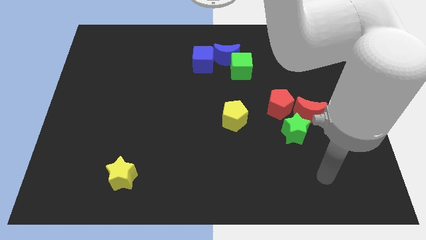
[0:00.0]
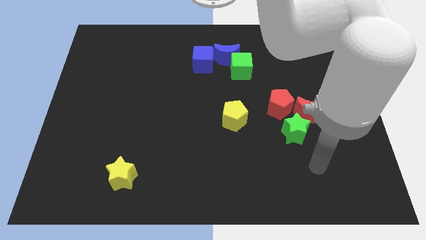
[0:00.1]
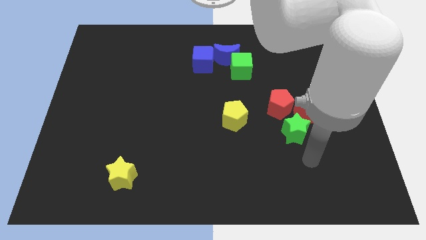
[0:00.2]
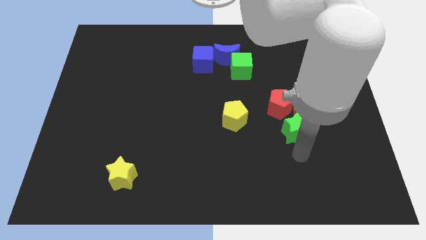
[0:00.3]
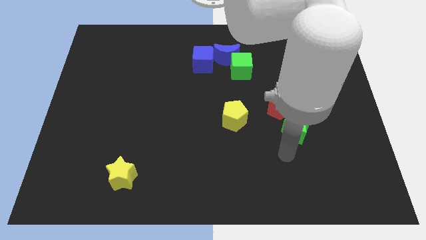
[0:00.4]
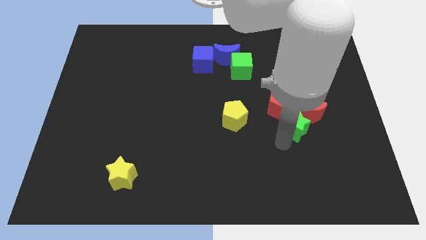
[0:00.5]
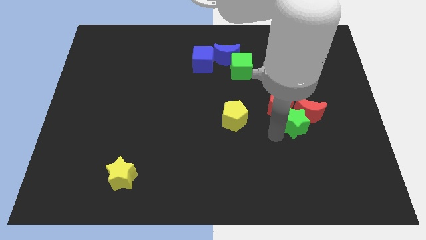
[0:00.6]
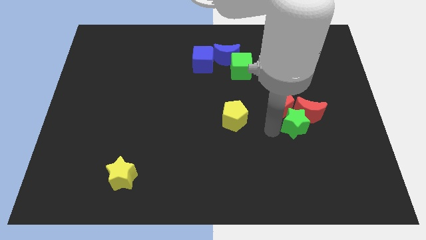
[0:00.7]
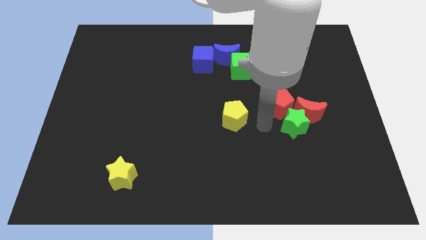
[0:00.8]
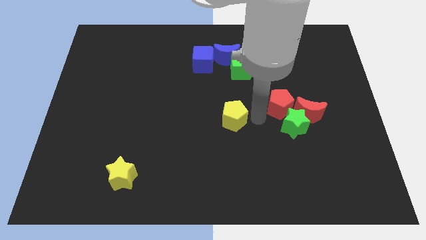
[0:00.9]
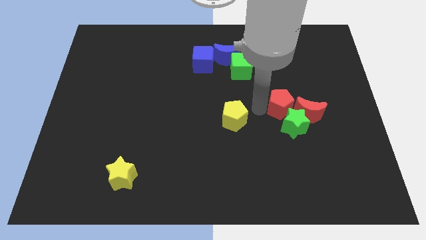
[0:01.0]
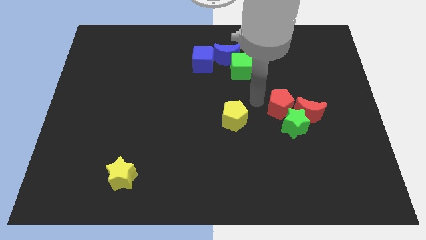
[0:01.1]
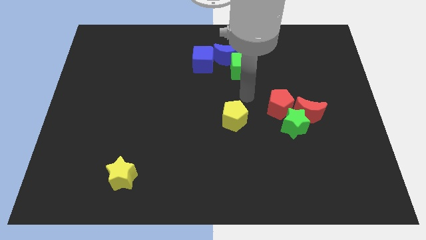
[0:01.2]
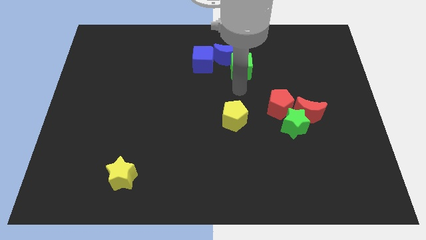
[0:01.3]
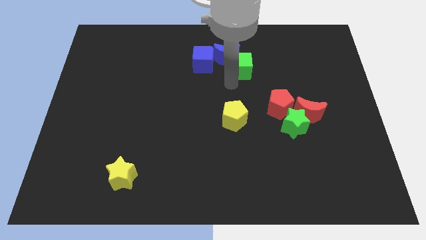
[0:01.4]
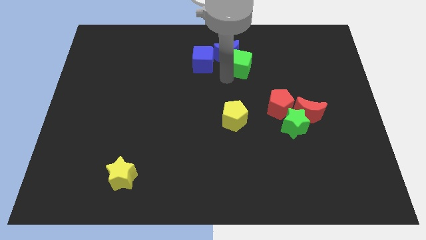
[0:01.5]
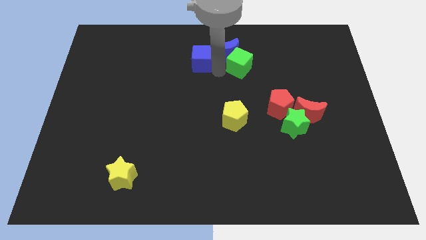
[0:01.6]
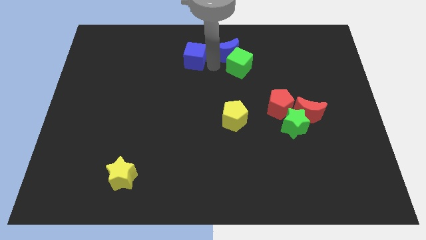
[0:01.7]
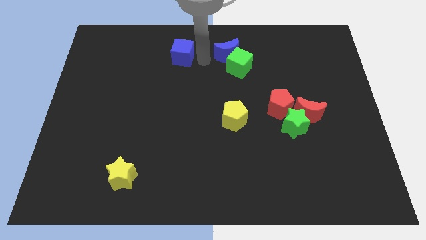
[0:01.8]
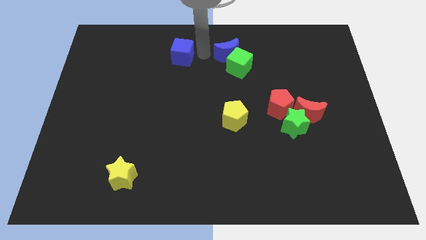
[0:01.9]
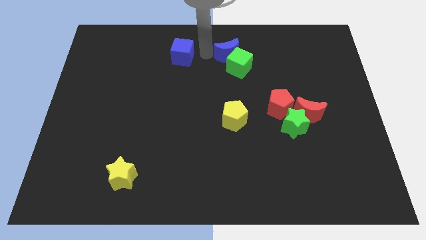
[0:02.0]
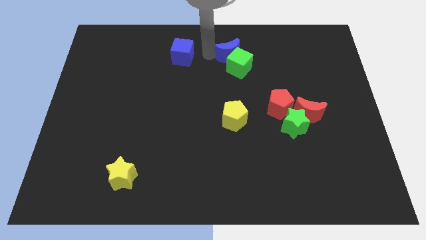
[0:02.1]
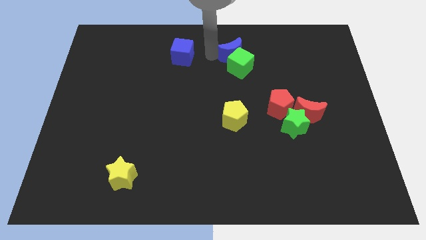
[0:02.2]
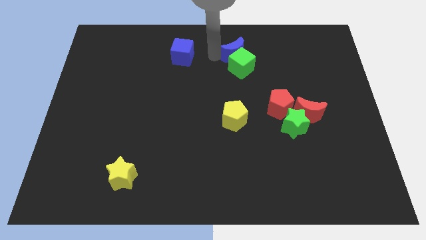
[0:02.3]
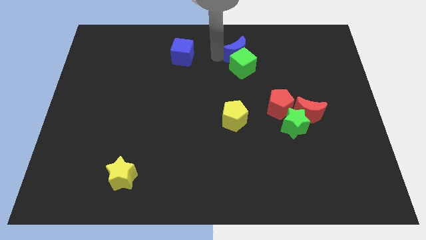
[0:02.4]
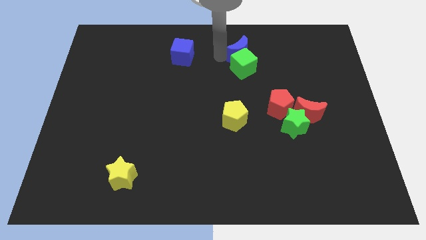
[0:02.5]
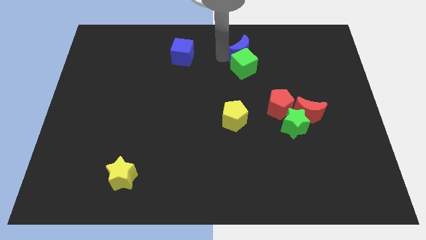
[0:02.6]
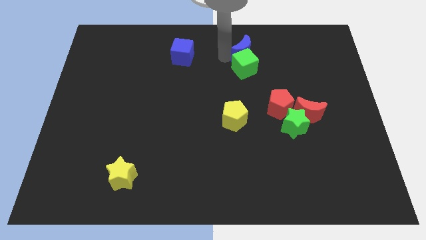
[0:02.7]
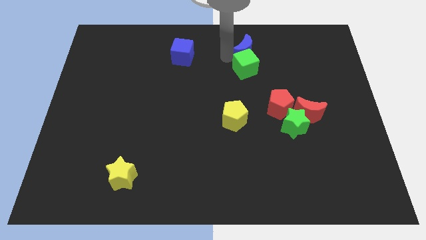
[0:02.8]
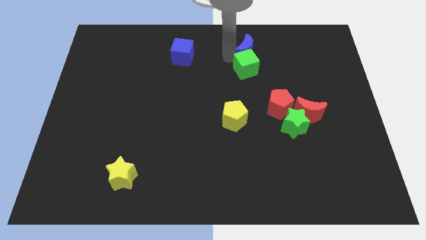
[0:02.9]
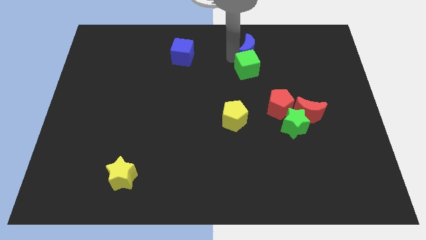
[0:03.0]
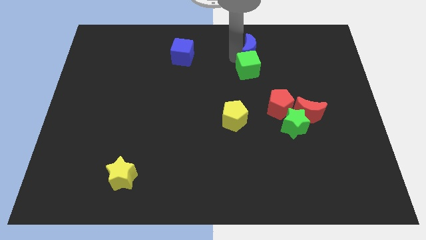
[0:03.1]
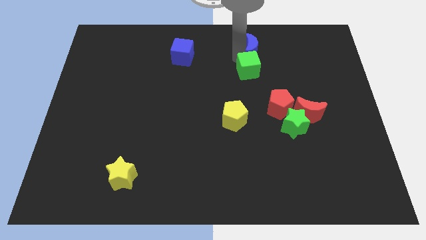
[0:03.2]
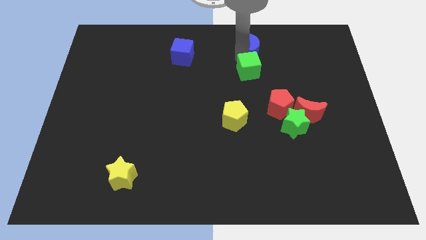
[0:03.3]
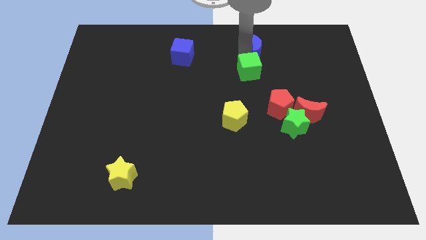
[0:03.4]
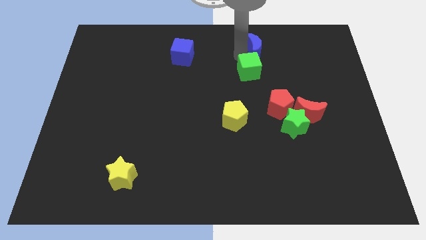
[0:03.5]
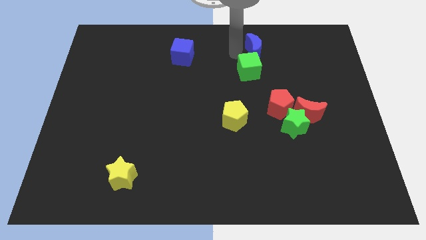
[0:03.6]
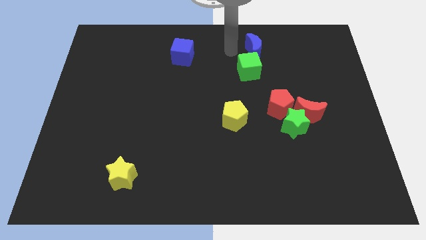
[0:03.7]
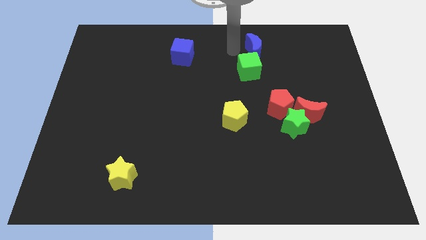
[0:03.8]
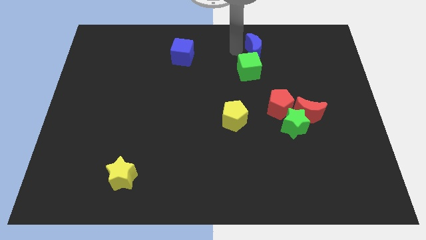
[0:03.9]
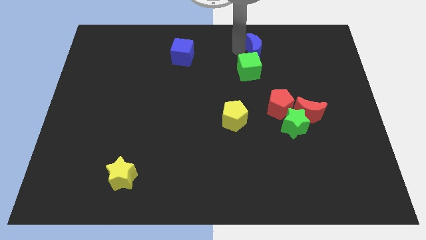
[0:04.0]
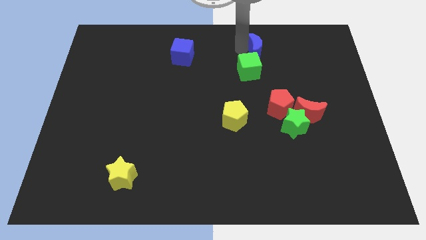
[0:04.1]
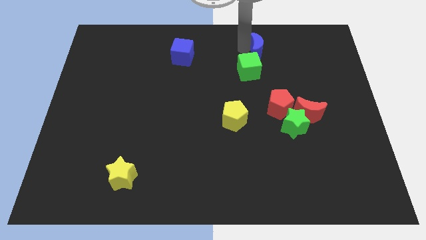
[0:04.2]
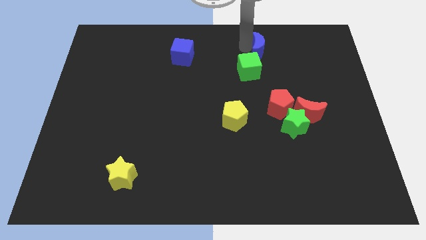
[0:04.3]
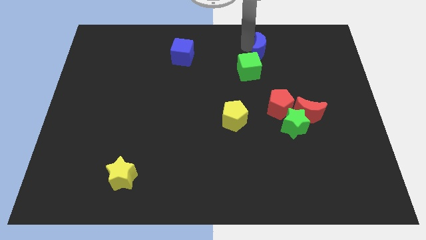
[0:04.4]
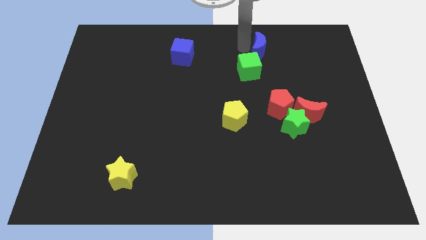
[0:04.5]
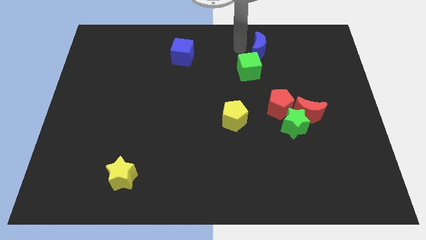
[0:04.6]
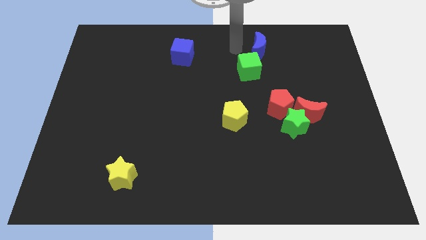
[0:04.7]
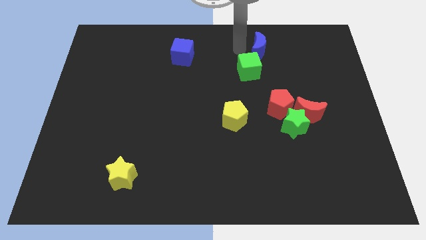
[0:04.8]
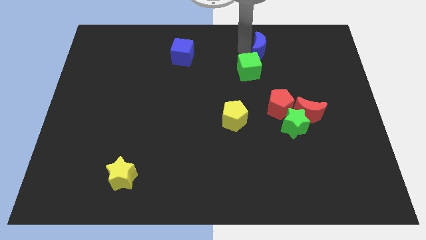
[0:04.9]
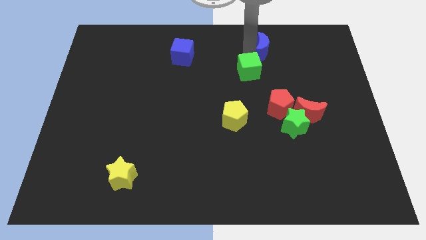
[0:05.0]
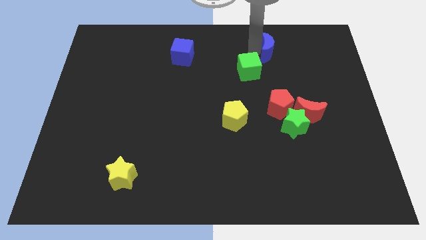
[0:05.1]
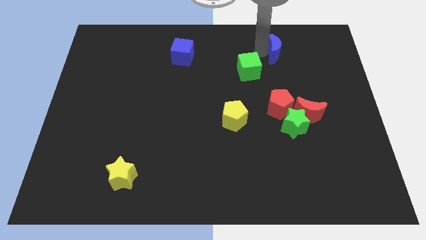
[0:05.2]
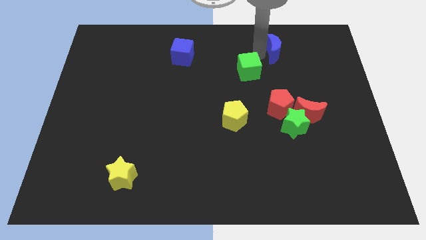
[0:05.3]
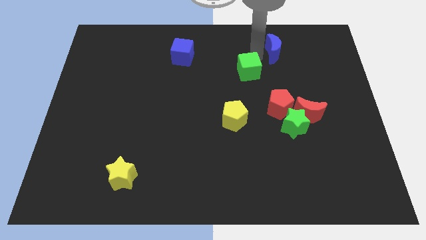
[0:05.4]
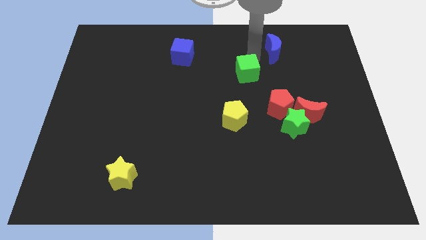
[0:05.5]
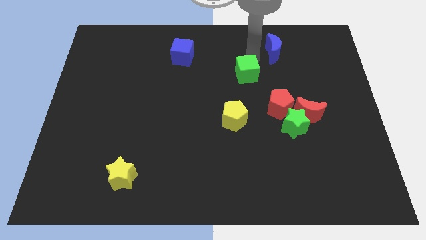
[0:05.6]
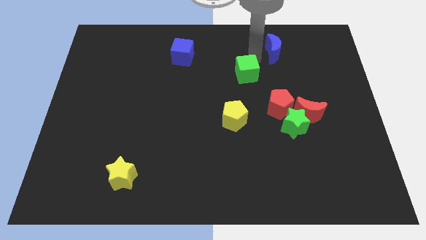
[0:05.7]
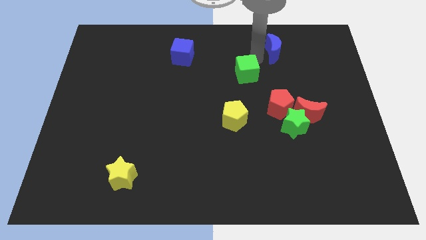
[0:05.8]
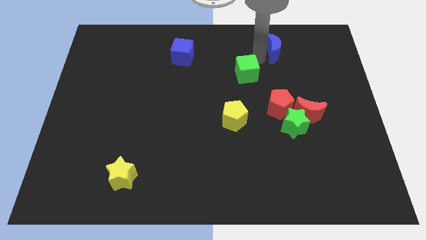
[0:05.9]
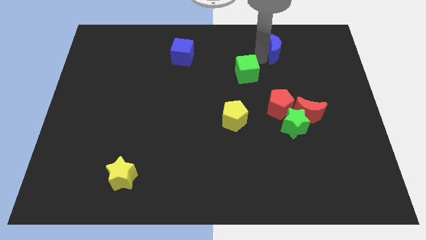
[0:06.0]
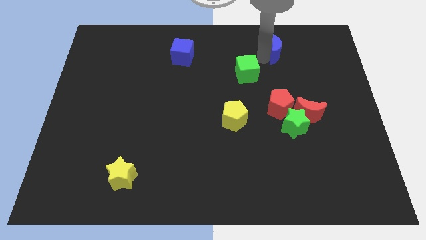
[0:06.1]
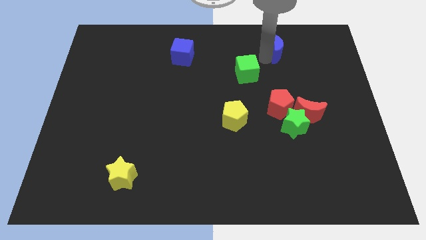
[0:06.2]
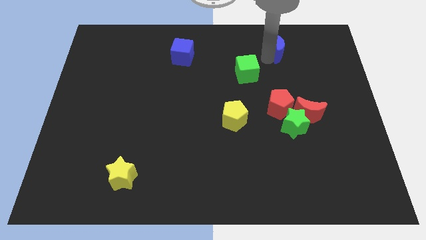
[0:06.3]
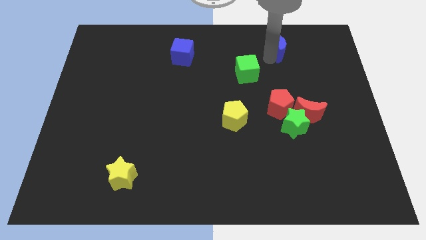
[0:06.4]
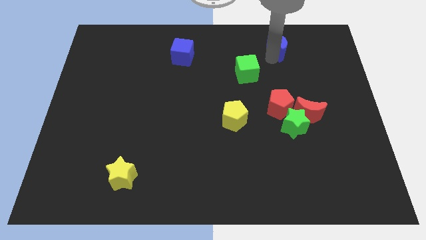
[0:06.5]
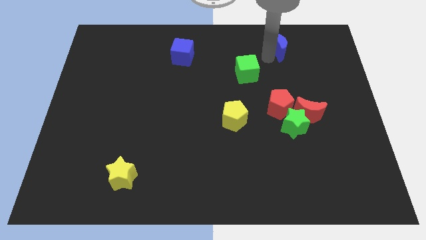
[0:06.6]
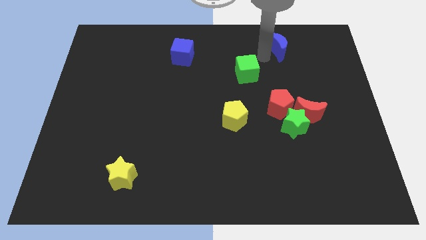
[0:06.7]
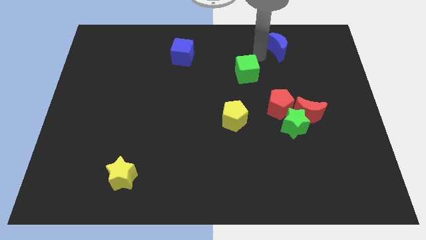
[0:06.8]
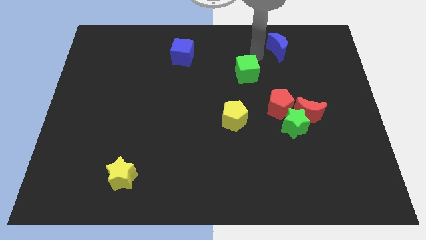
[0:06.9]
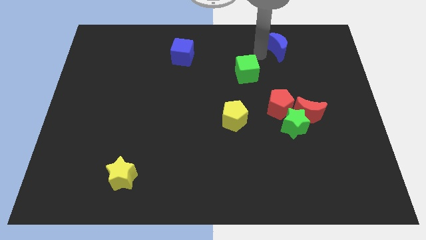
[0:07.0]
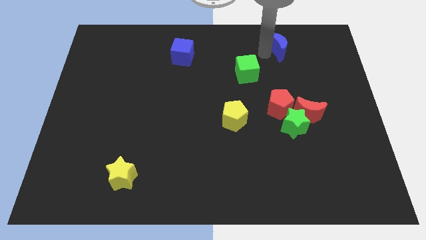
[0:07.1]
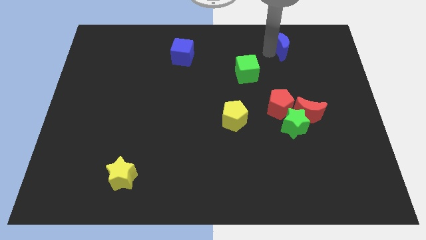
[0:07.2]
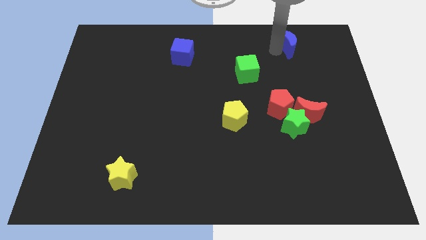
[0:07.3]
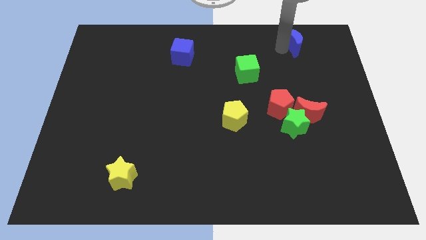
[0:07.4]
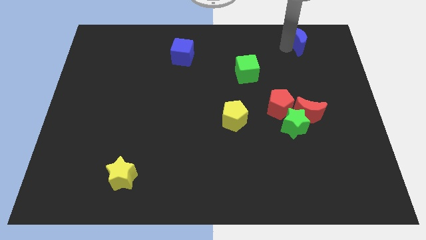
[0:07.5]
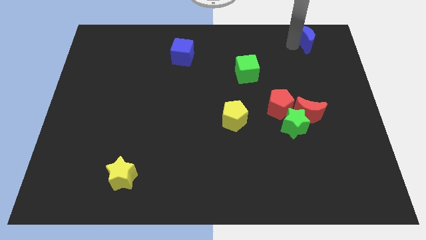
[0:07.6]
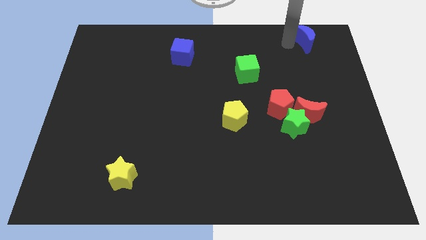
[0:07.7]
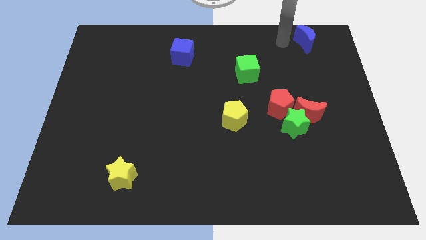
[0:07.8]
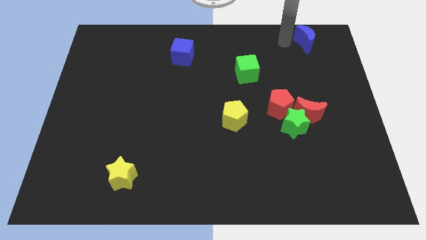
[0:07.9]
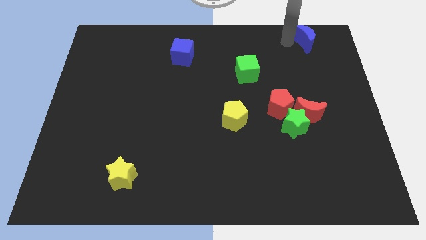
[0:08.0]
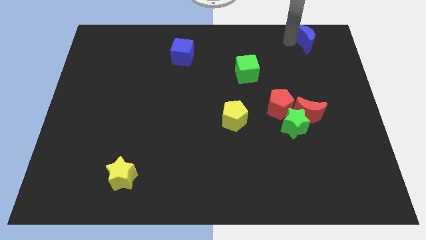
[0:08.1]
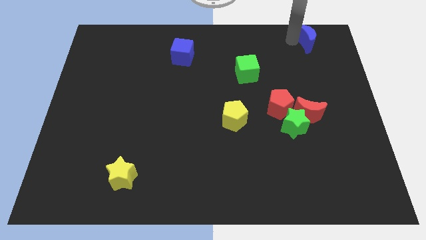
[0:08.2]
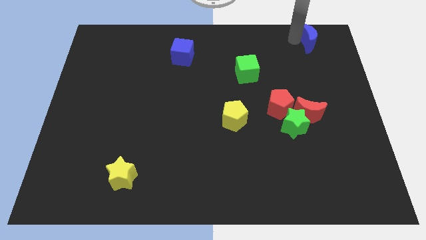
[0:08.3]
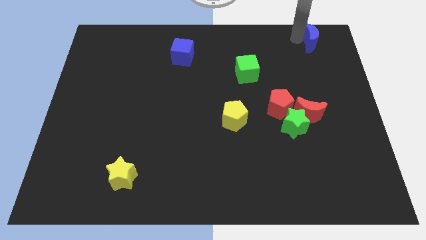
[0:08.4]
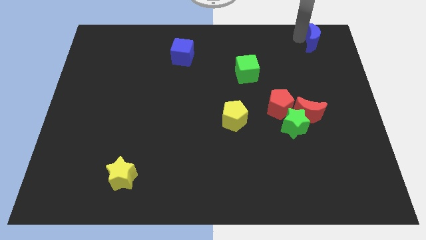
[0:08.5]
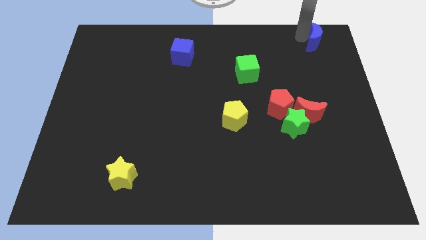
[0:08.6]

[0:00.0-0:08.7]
push the blue moon to the top right of the board

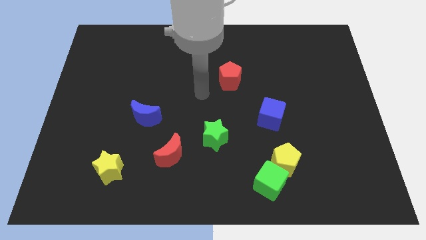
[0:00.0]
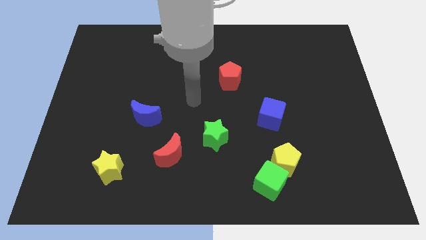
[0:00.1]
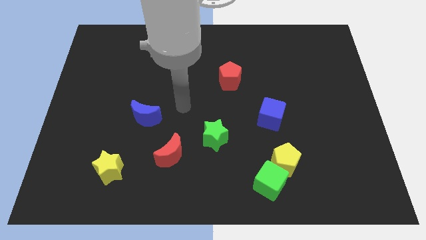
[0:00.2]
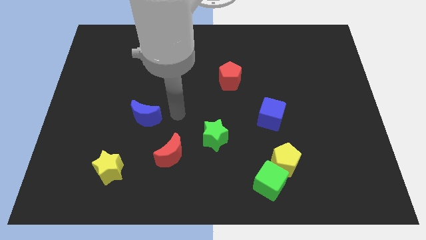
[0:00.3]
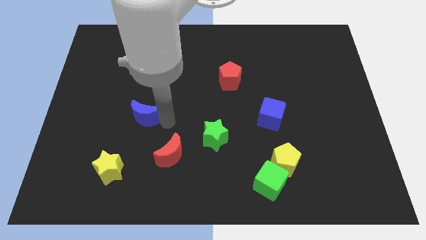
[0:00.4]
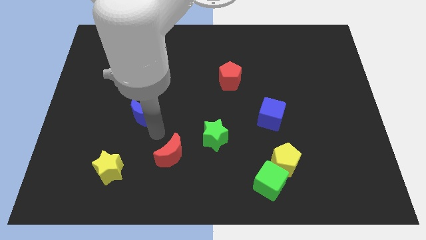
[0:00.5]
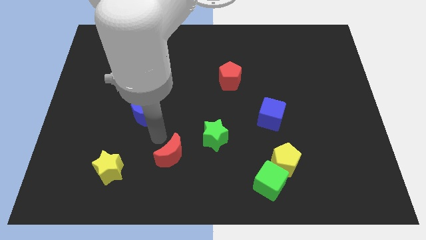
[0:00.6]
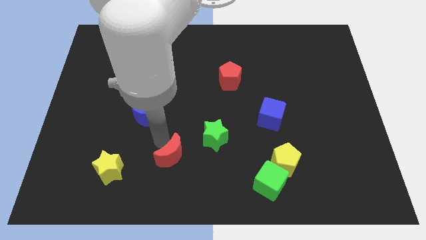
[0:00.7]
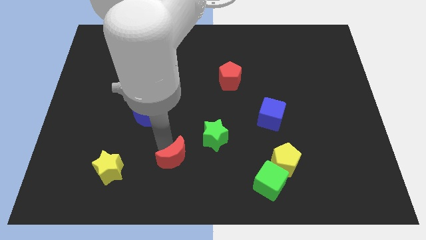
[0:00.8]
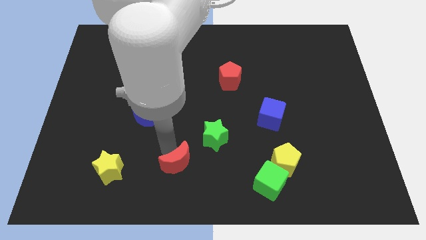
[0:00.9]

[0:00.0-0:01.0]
move the red moon to the bottom side
